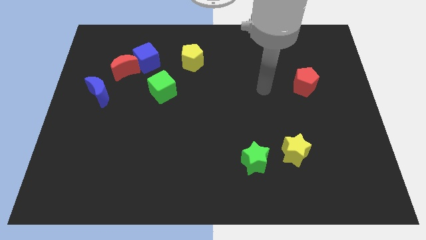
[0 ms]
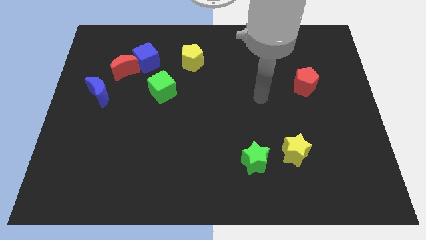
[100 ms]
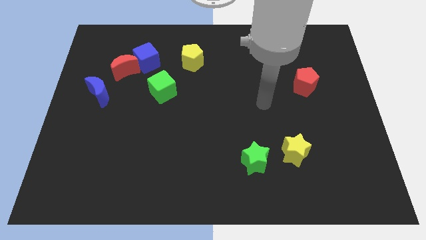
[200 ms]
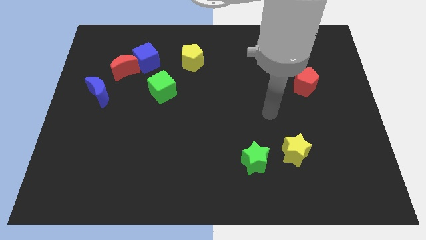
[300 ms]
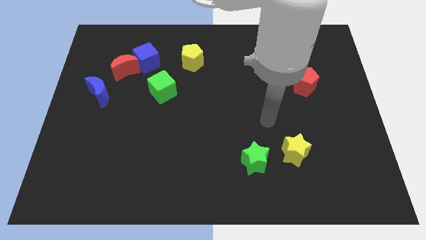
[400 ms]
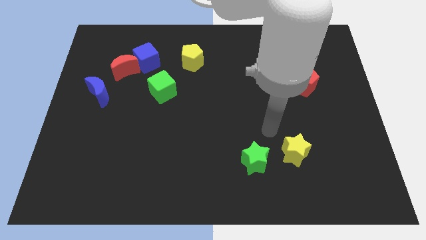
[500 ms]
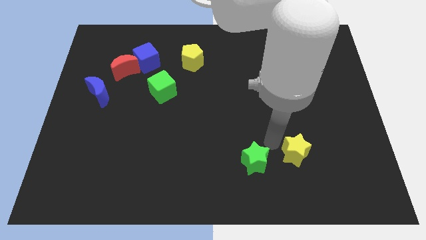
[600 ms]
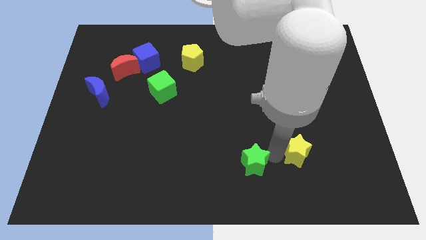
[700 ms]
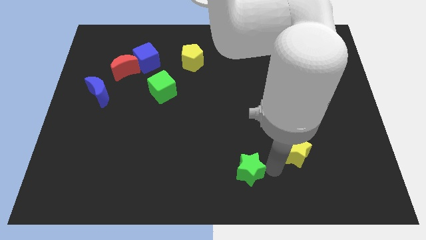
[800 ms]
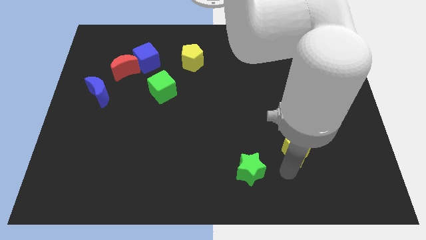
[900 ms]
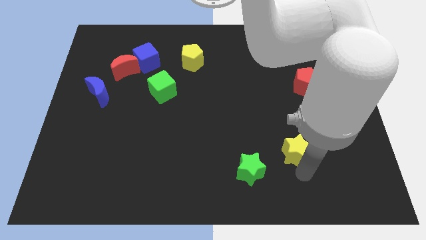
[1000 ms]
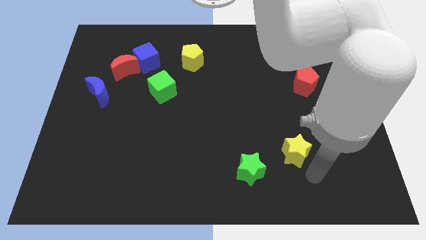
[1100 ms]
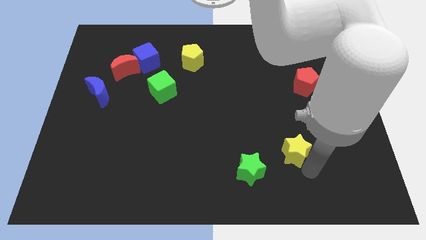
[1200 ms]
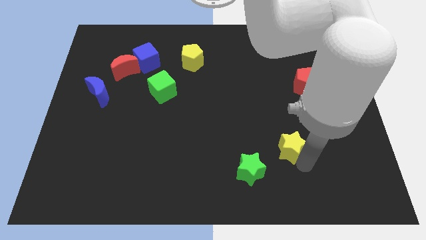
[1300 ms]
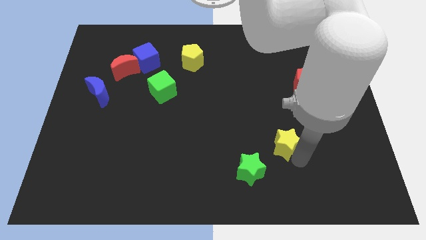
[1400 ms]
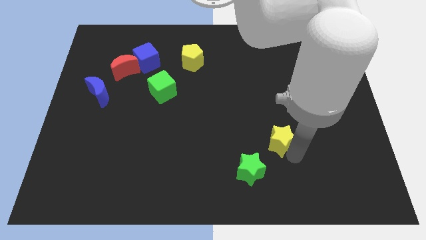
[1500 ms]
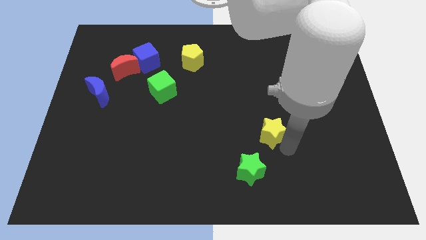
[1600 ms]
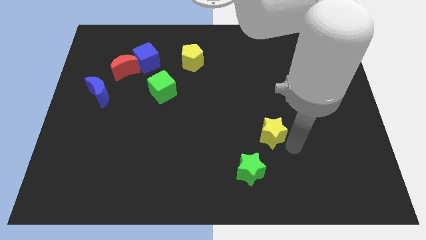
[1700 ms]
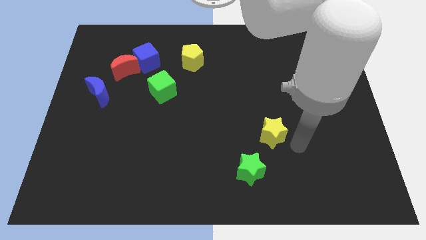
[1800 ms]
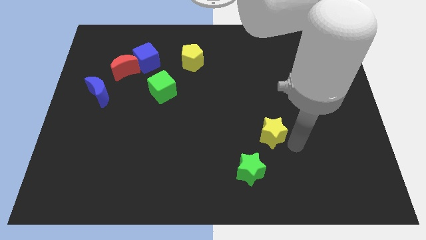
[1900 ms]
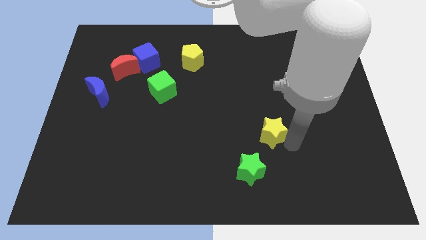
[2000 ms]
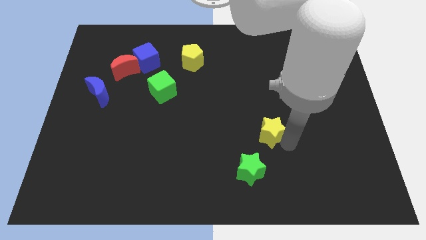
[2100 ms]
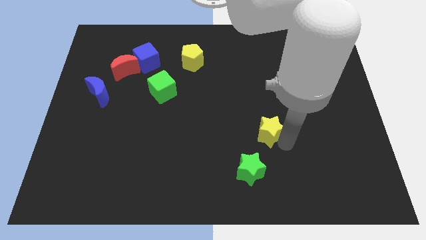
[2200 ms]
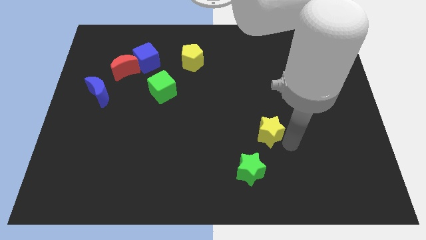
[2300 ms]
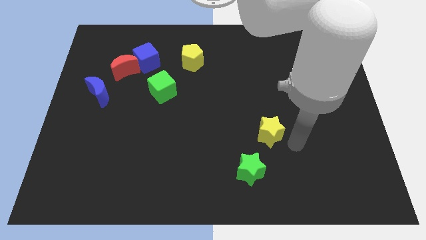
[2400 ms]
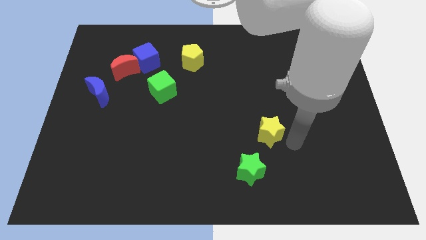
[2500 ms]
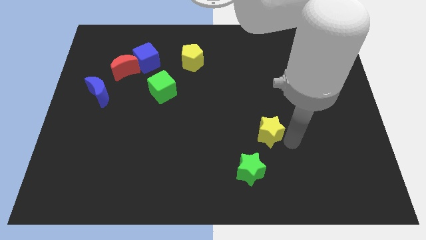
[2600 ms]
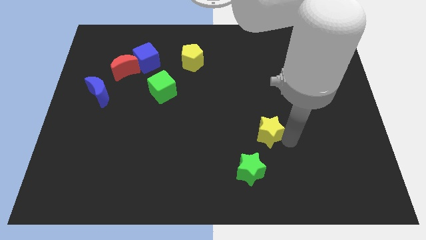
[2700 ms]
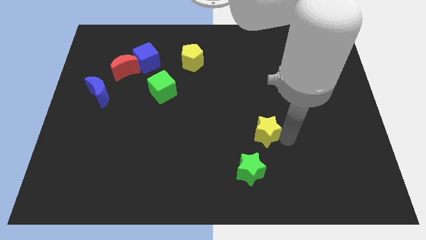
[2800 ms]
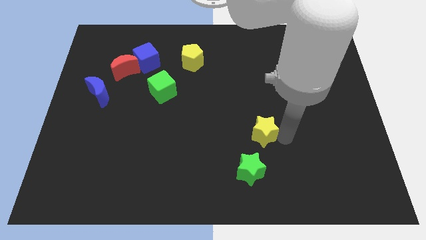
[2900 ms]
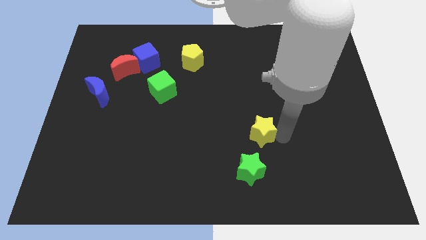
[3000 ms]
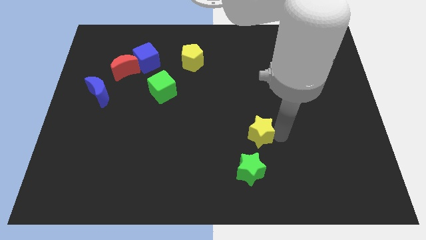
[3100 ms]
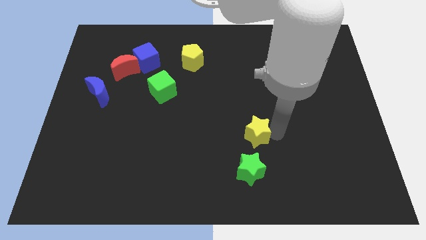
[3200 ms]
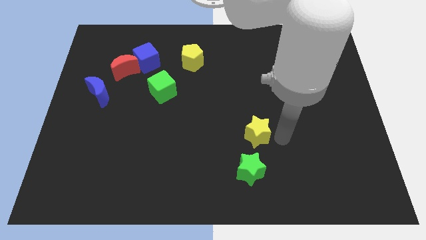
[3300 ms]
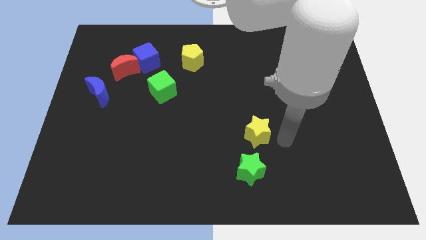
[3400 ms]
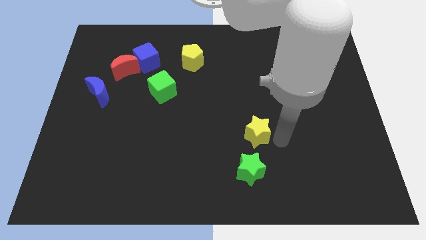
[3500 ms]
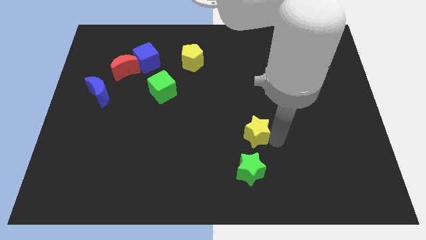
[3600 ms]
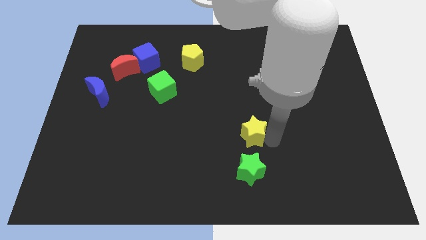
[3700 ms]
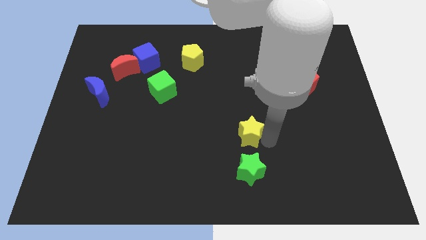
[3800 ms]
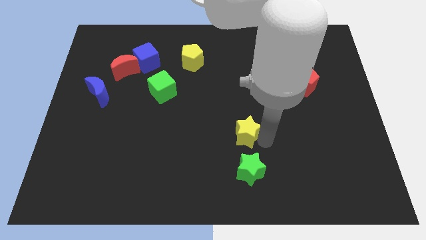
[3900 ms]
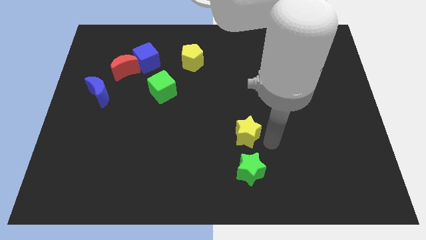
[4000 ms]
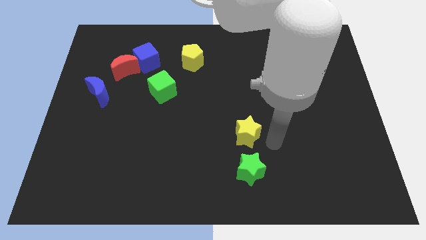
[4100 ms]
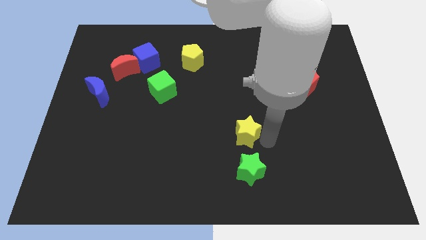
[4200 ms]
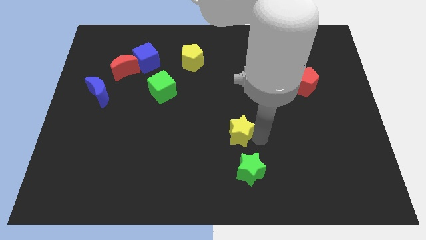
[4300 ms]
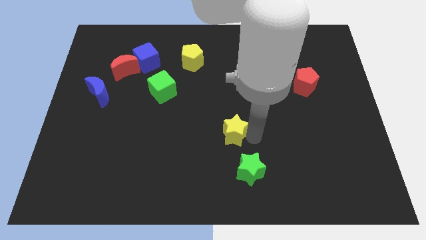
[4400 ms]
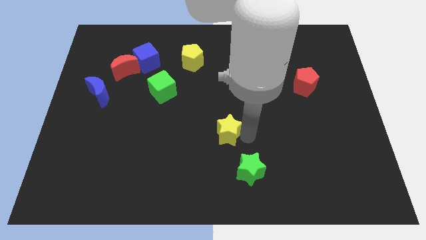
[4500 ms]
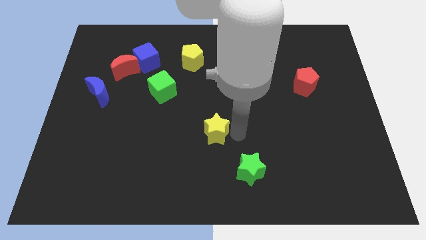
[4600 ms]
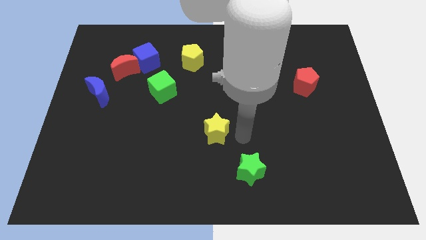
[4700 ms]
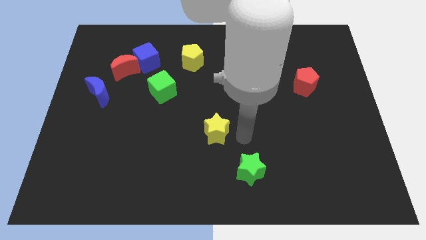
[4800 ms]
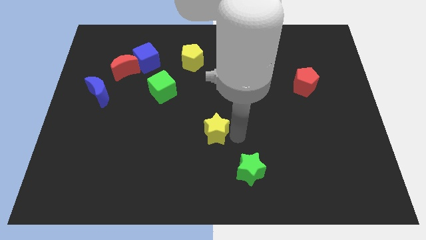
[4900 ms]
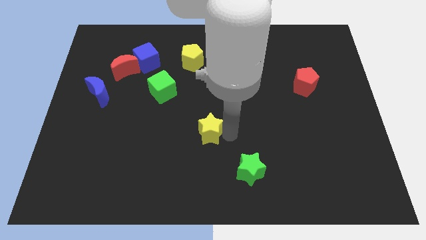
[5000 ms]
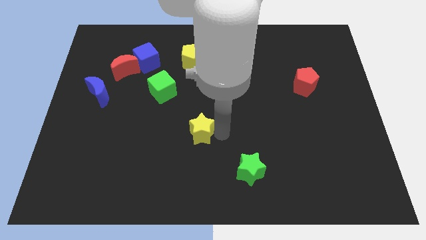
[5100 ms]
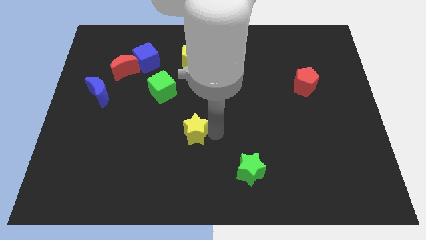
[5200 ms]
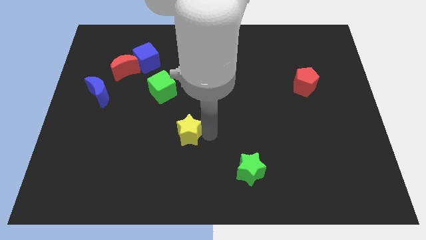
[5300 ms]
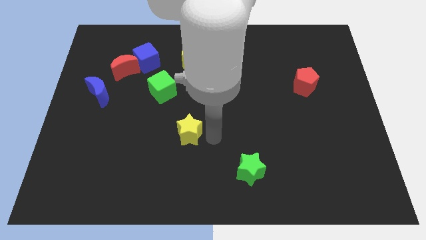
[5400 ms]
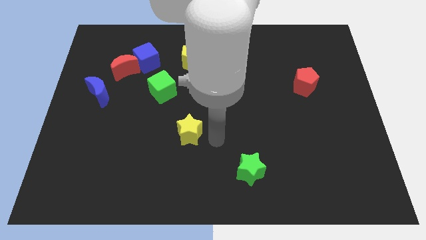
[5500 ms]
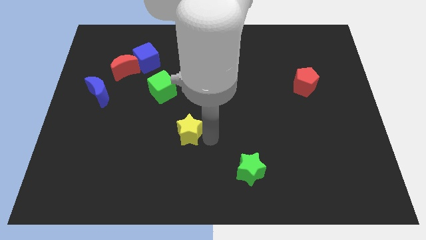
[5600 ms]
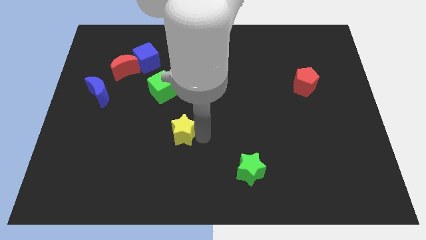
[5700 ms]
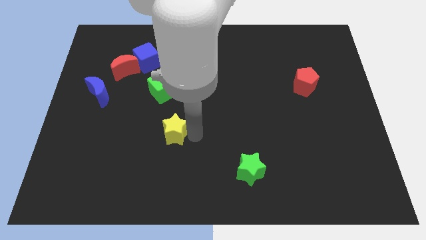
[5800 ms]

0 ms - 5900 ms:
move the yellow star to the bottom side of the green cube

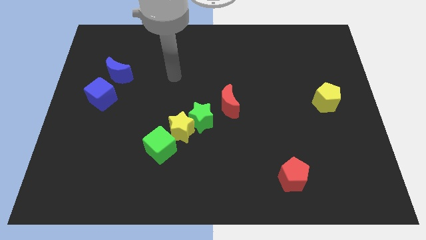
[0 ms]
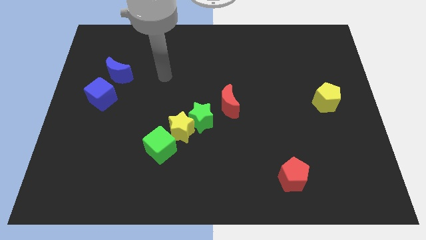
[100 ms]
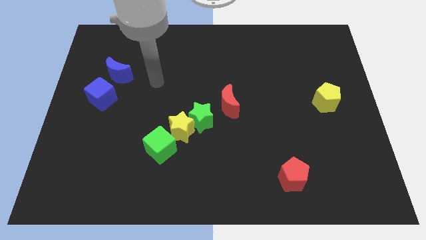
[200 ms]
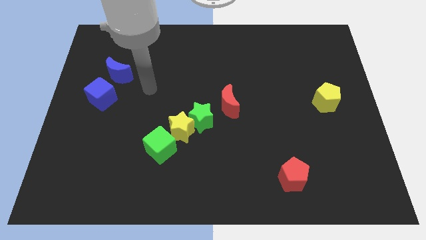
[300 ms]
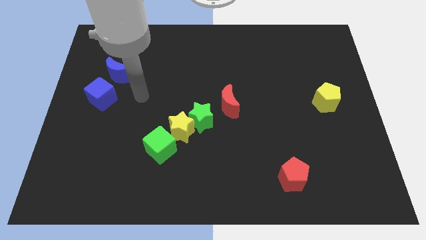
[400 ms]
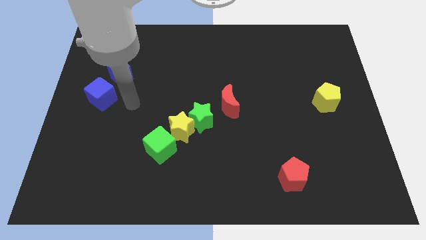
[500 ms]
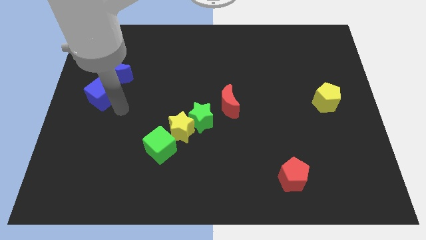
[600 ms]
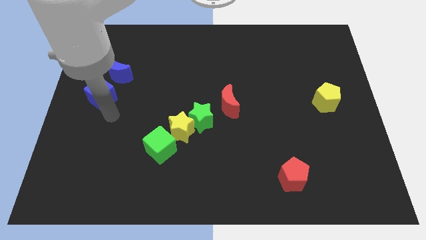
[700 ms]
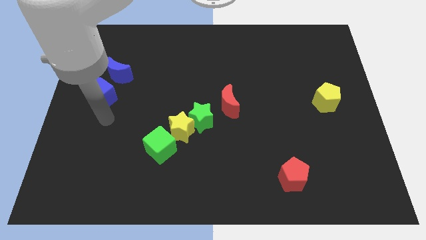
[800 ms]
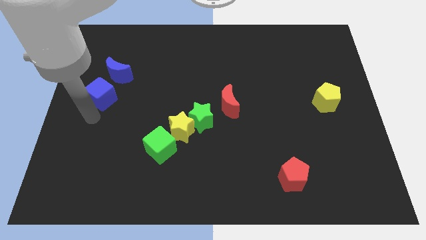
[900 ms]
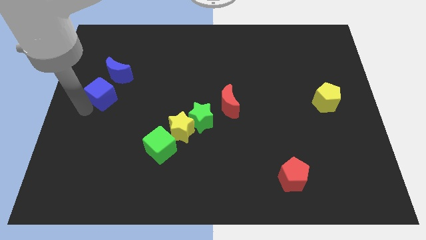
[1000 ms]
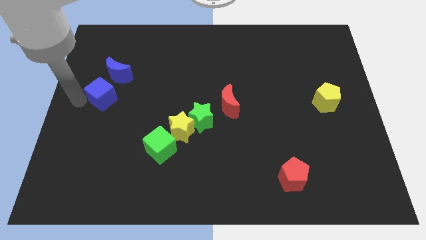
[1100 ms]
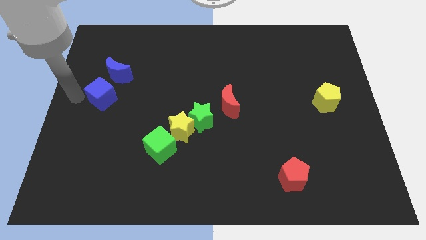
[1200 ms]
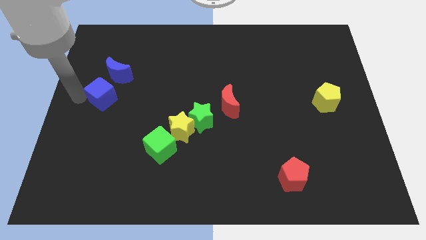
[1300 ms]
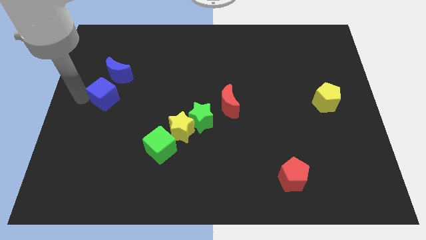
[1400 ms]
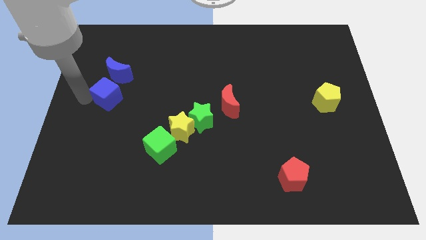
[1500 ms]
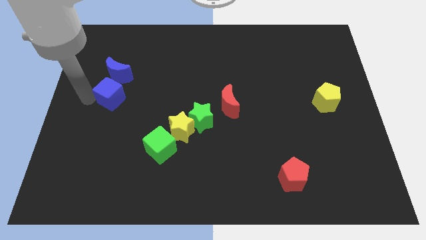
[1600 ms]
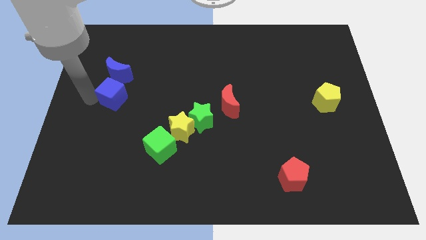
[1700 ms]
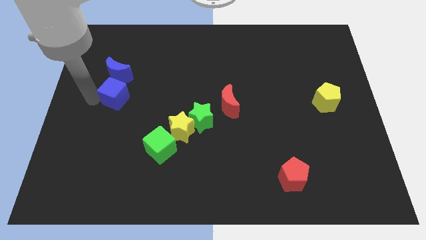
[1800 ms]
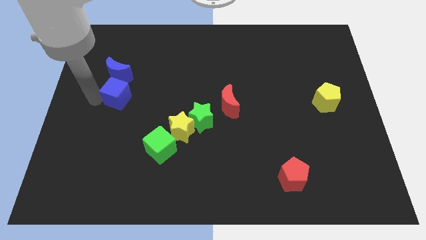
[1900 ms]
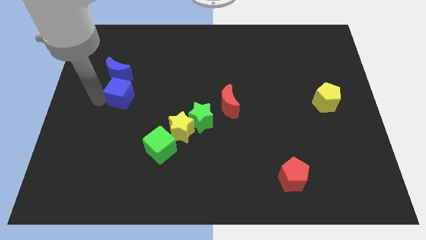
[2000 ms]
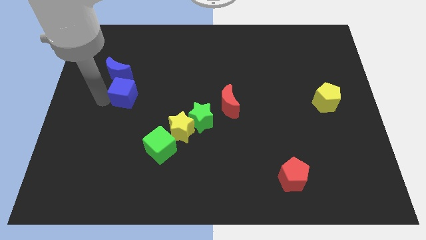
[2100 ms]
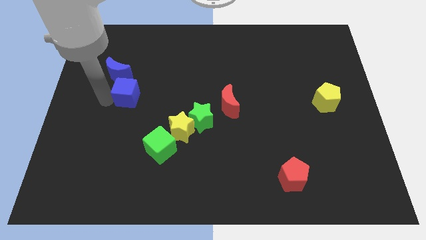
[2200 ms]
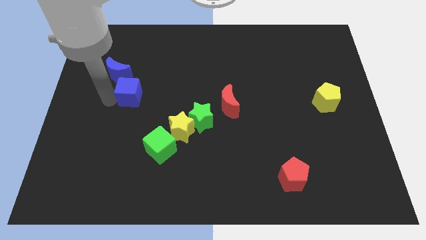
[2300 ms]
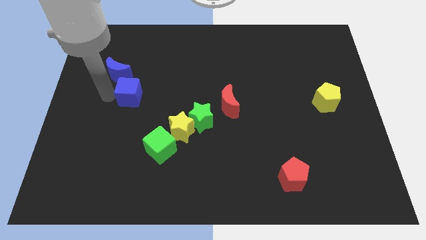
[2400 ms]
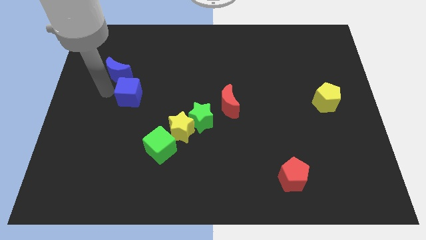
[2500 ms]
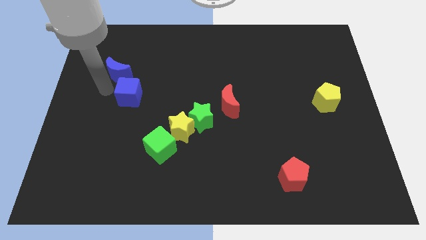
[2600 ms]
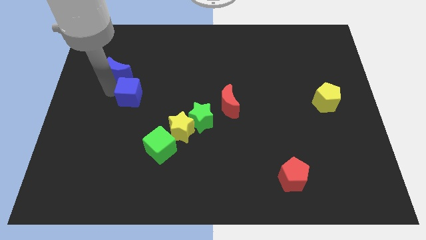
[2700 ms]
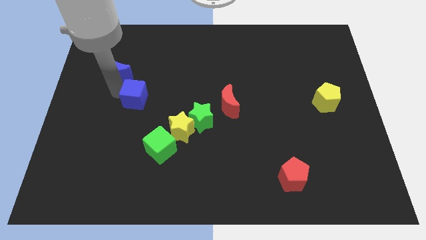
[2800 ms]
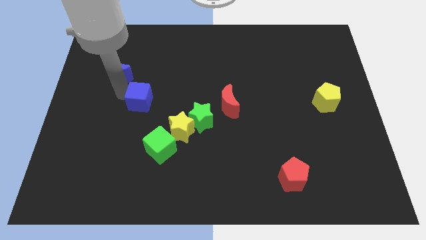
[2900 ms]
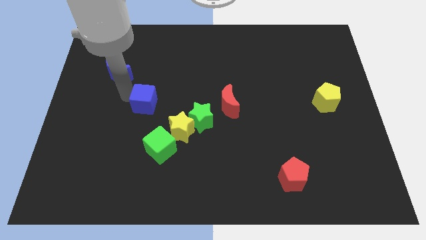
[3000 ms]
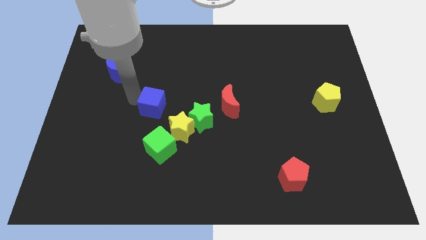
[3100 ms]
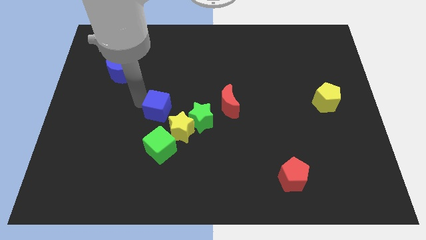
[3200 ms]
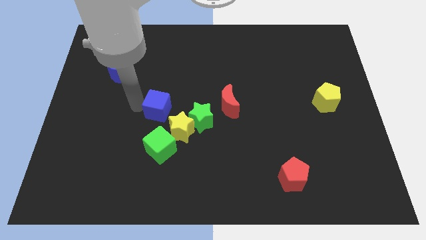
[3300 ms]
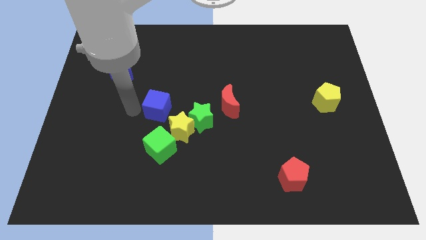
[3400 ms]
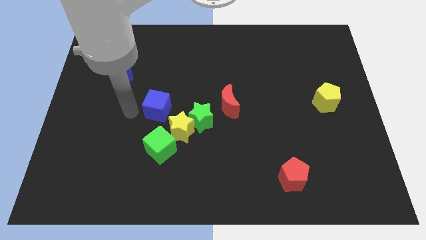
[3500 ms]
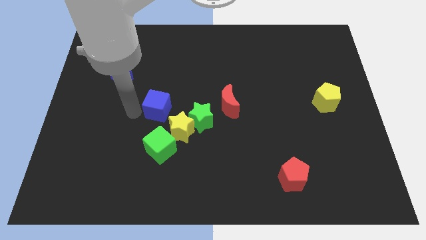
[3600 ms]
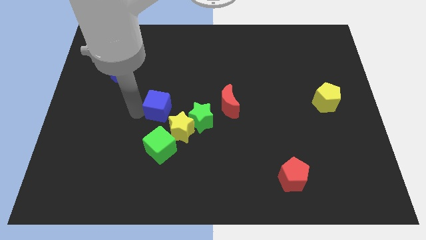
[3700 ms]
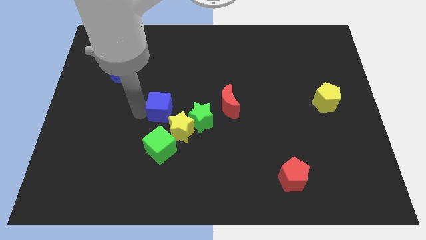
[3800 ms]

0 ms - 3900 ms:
put the blue cube just left of the red moon
